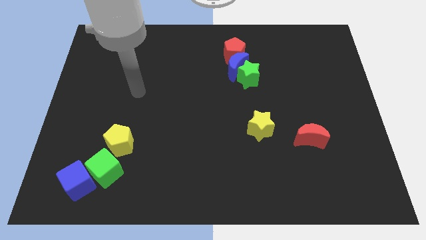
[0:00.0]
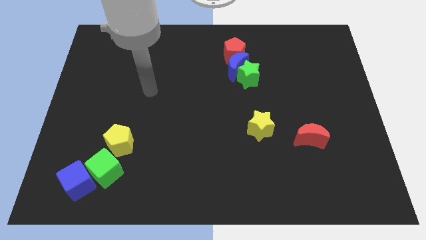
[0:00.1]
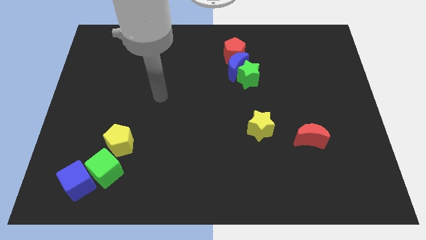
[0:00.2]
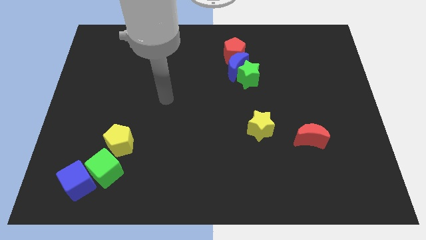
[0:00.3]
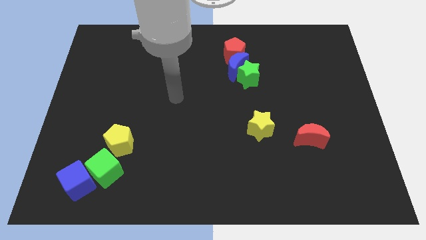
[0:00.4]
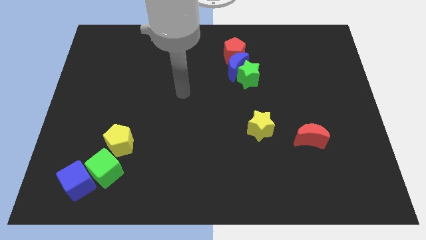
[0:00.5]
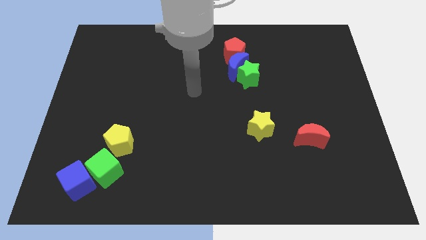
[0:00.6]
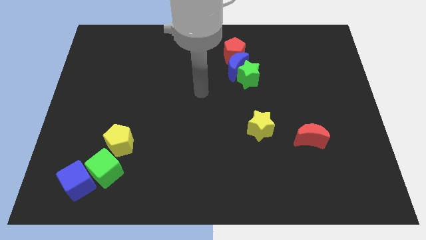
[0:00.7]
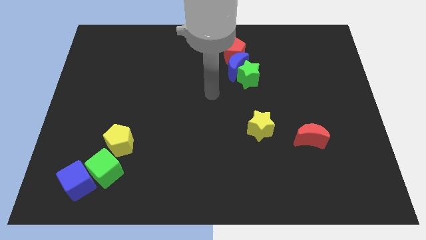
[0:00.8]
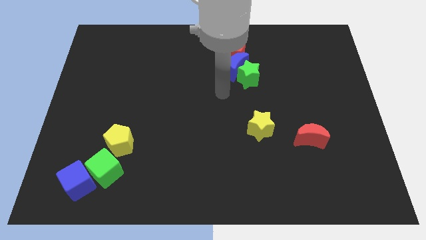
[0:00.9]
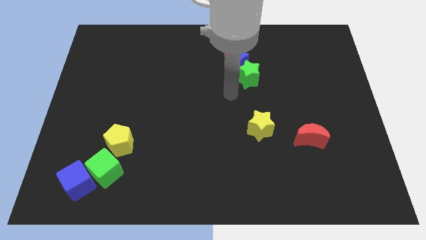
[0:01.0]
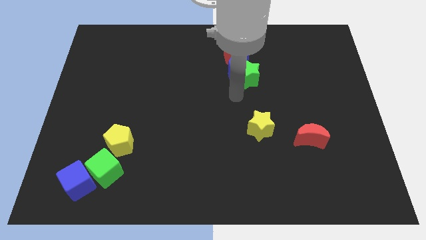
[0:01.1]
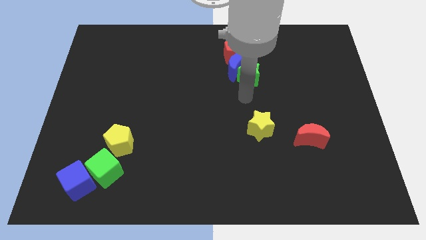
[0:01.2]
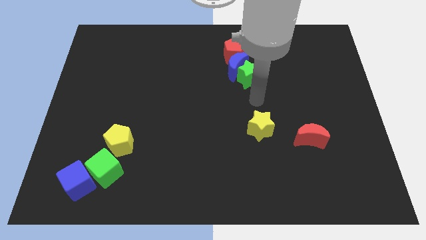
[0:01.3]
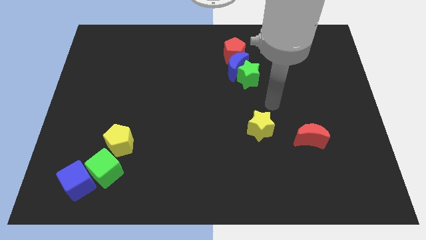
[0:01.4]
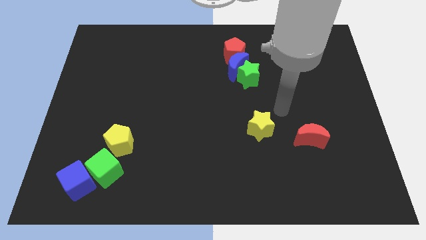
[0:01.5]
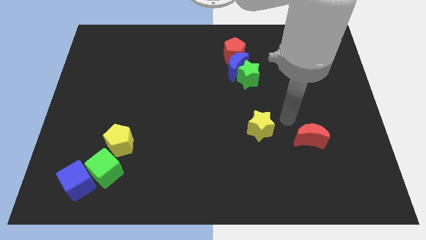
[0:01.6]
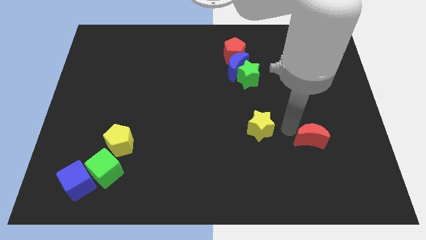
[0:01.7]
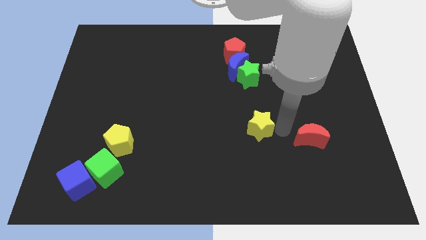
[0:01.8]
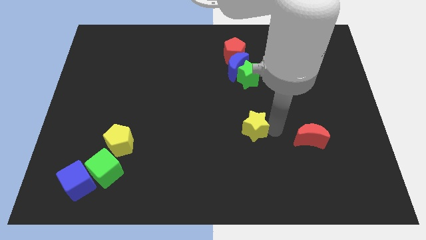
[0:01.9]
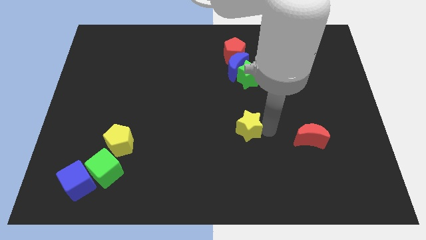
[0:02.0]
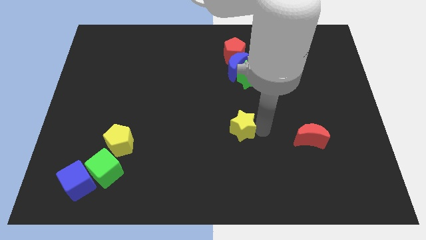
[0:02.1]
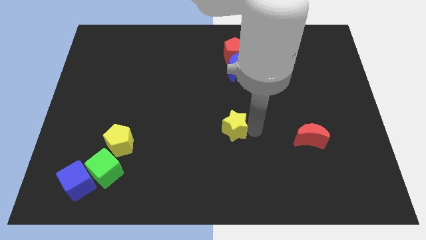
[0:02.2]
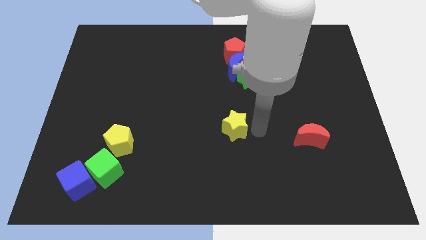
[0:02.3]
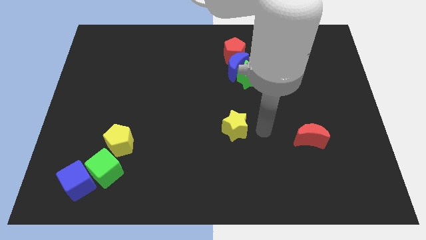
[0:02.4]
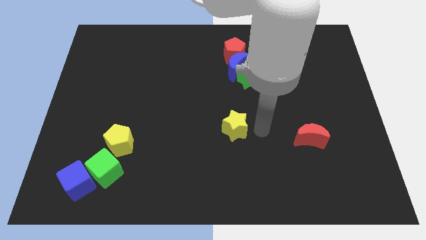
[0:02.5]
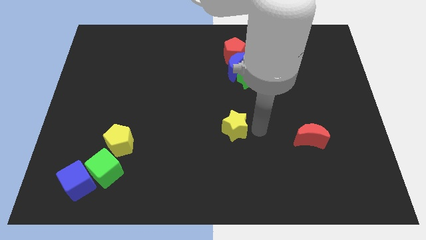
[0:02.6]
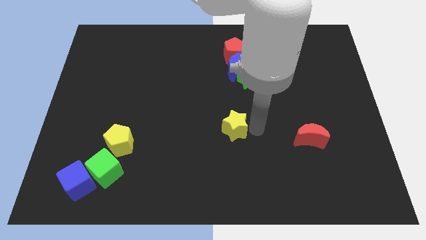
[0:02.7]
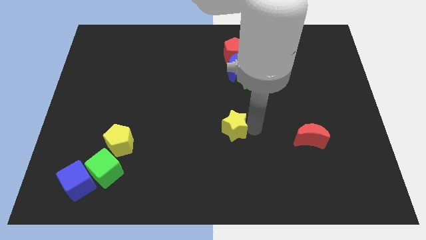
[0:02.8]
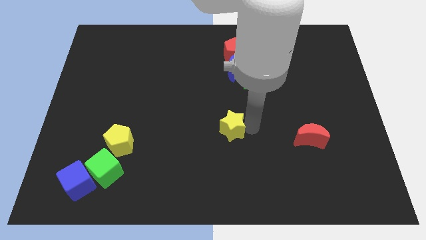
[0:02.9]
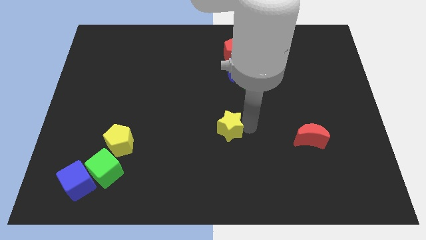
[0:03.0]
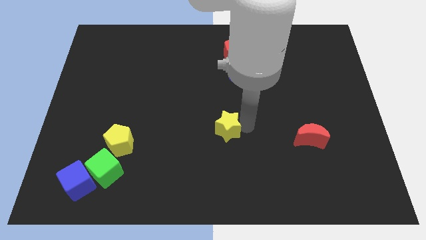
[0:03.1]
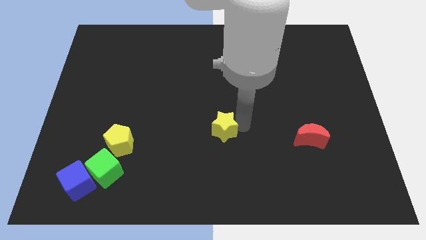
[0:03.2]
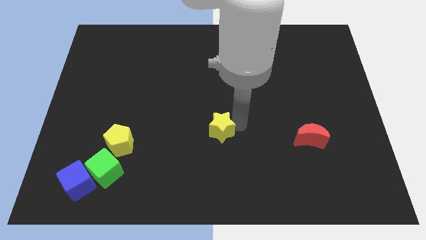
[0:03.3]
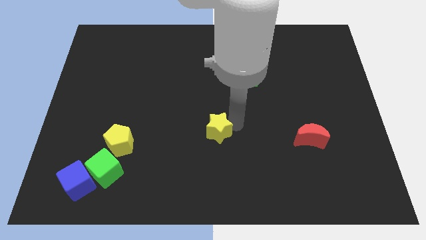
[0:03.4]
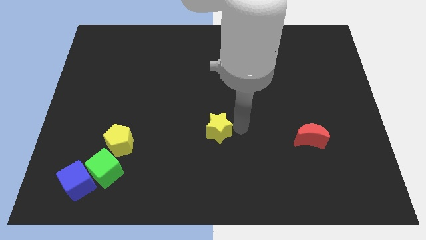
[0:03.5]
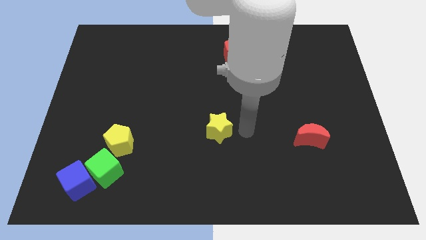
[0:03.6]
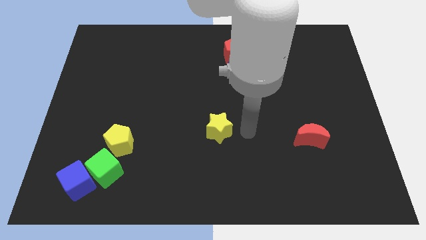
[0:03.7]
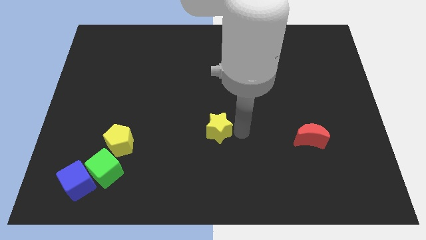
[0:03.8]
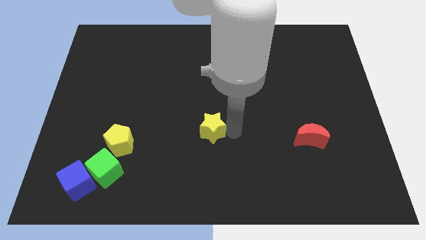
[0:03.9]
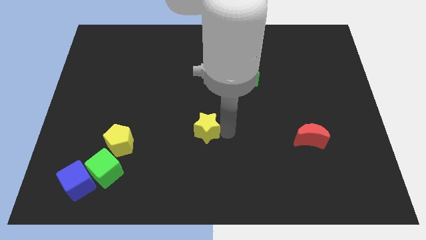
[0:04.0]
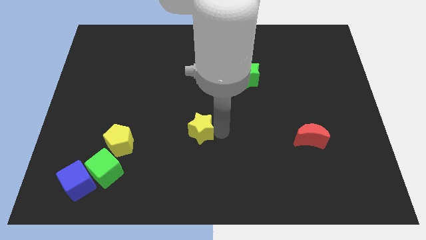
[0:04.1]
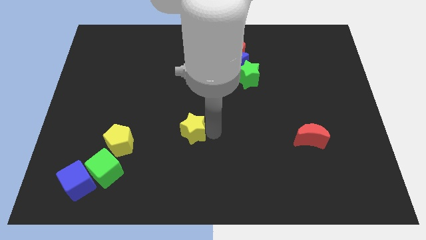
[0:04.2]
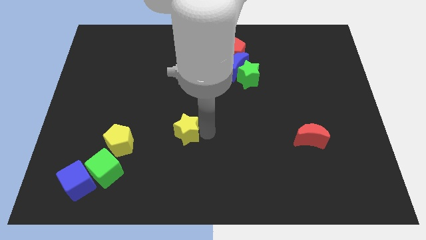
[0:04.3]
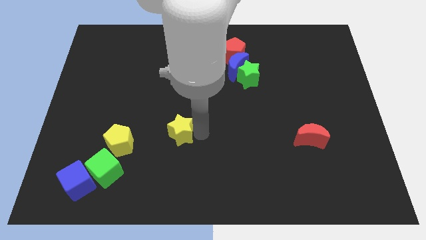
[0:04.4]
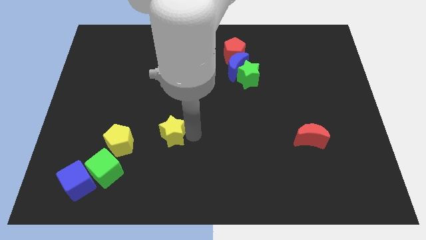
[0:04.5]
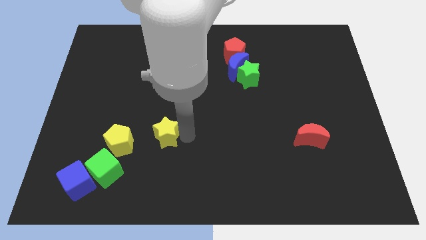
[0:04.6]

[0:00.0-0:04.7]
move the yellow star to the left

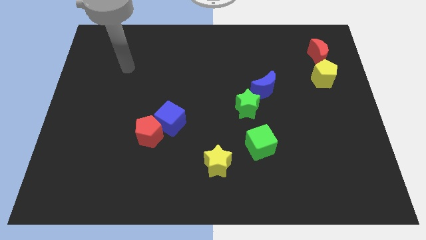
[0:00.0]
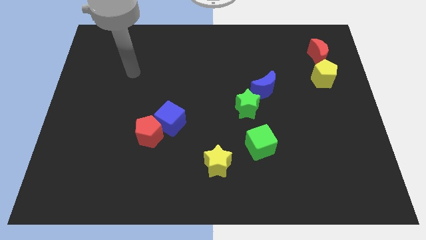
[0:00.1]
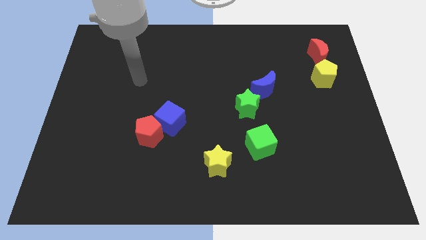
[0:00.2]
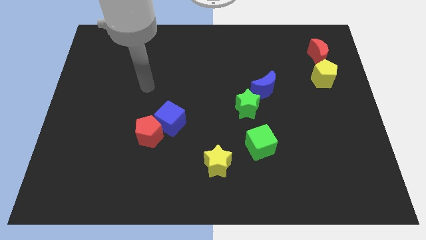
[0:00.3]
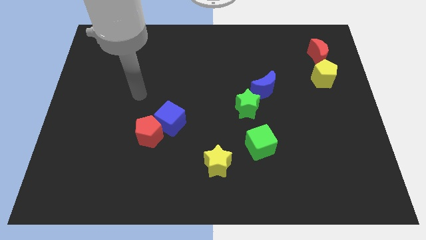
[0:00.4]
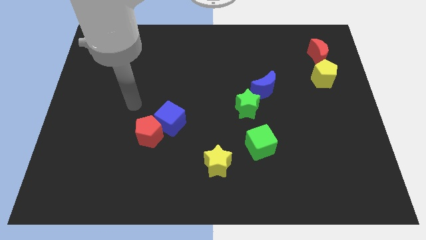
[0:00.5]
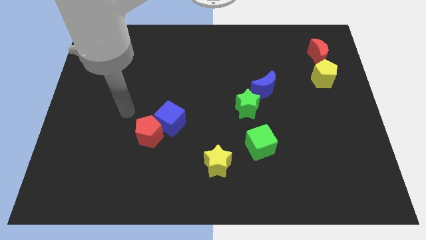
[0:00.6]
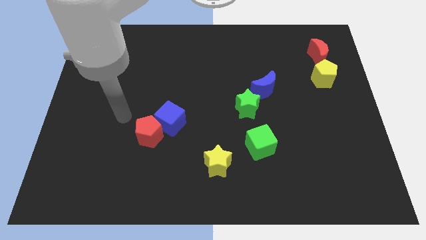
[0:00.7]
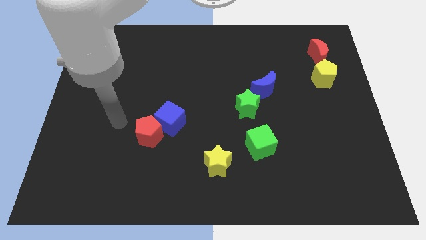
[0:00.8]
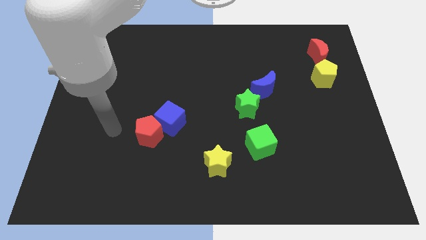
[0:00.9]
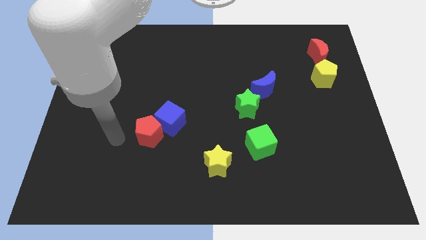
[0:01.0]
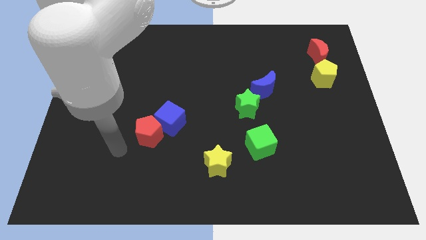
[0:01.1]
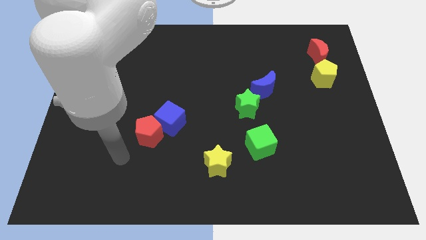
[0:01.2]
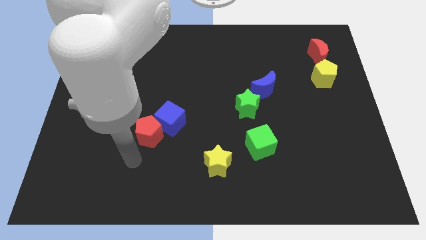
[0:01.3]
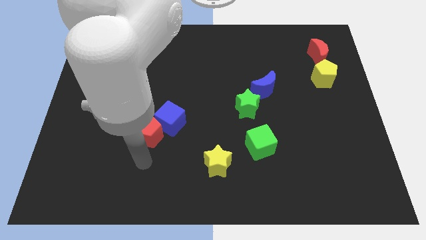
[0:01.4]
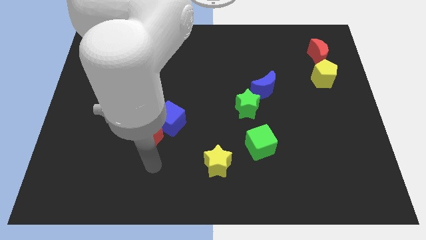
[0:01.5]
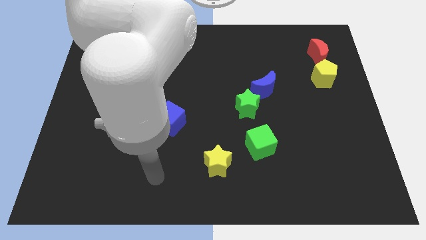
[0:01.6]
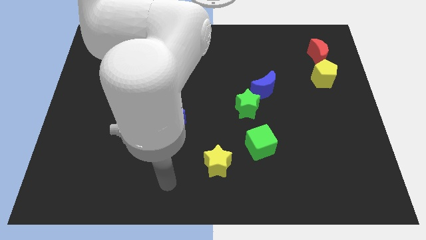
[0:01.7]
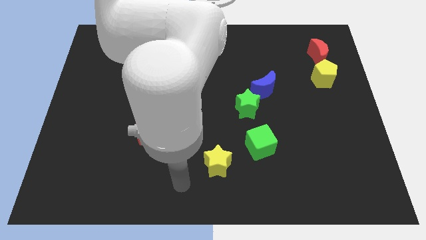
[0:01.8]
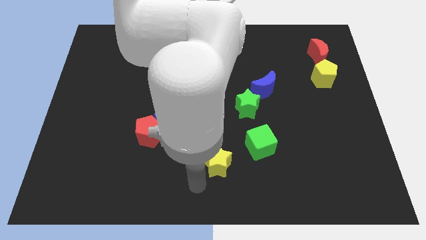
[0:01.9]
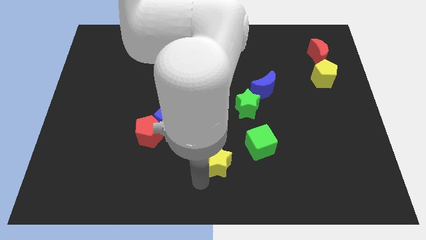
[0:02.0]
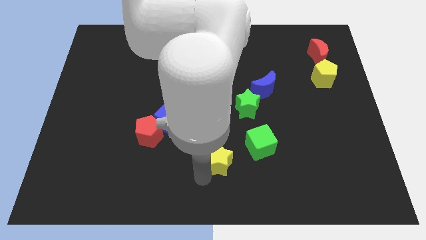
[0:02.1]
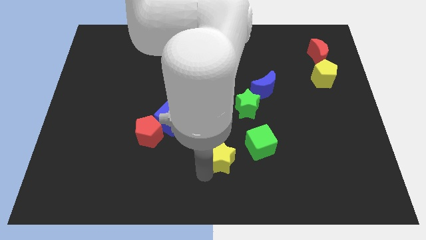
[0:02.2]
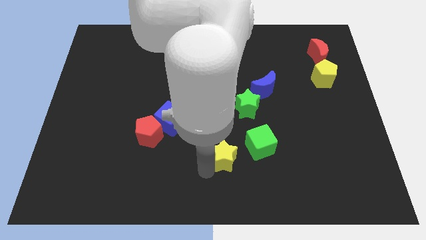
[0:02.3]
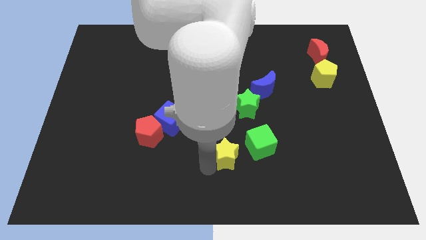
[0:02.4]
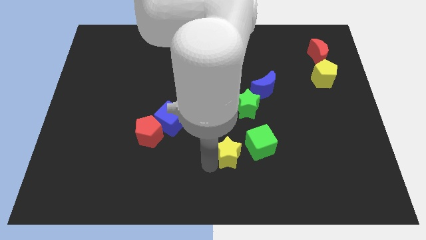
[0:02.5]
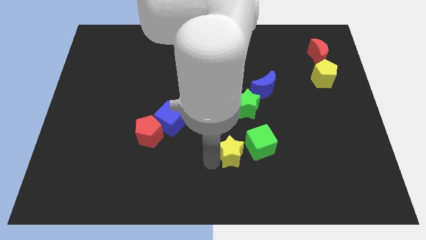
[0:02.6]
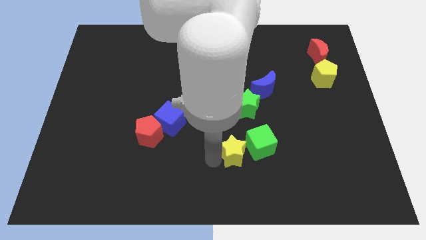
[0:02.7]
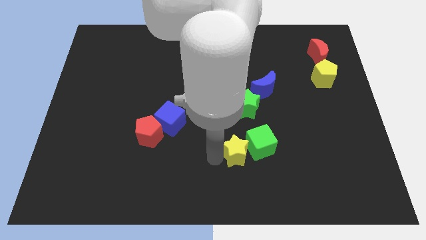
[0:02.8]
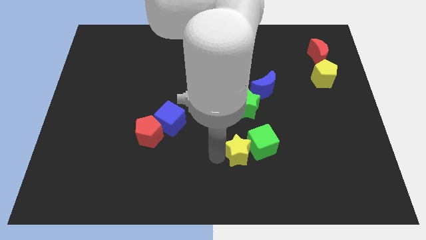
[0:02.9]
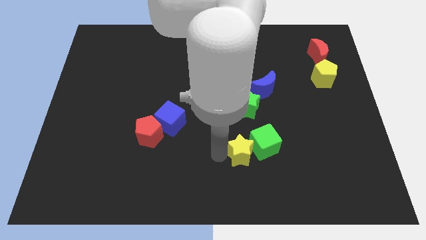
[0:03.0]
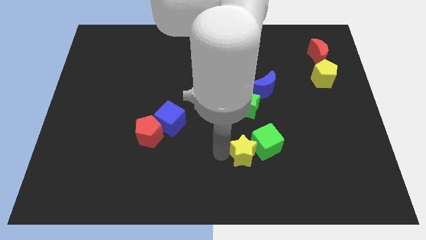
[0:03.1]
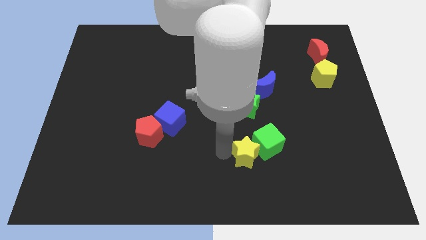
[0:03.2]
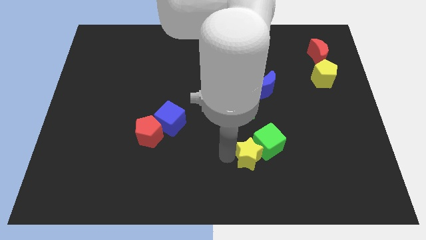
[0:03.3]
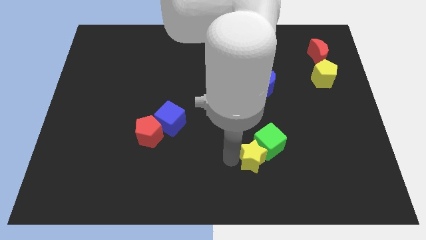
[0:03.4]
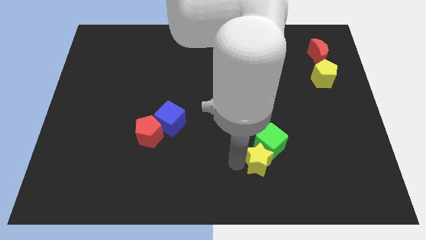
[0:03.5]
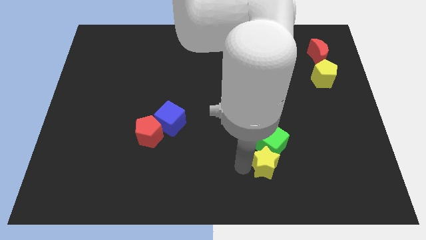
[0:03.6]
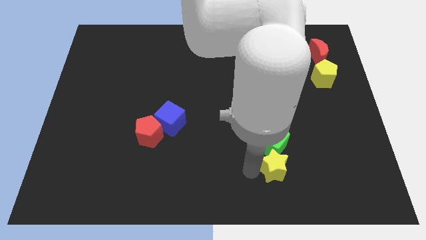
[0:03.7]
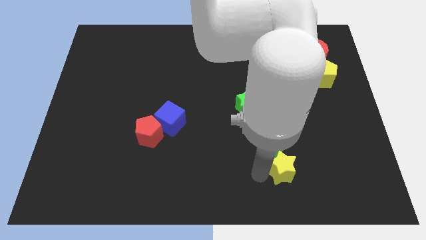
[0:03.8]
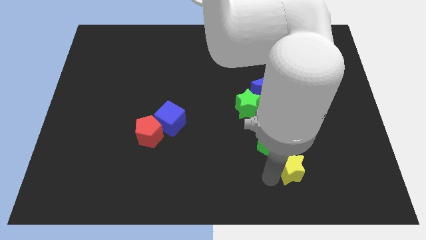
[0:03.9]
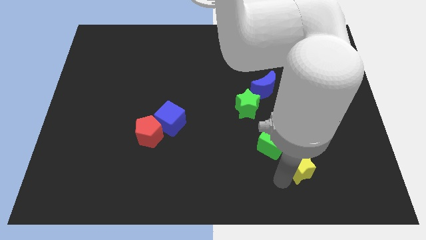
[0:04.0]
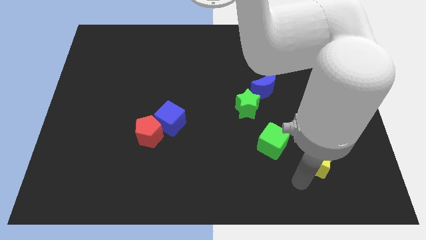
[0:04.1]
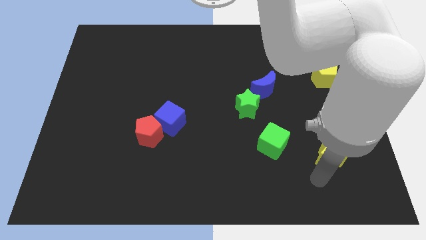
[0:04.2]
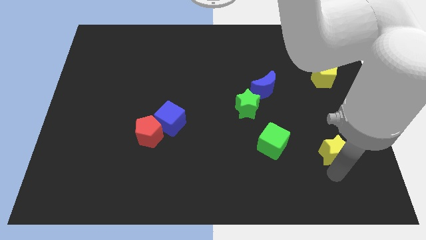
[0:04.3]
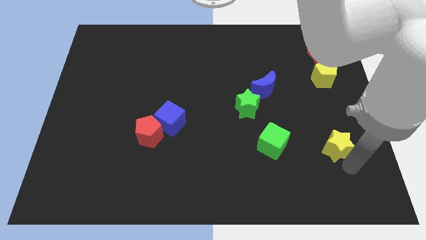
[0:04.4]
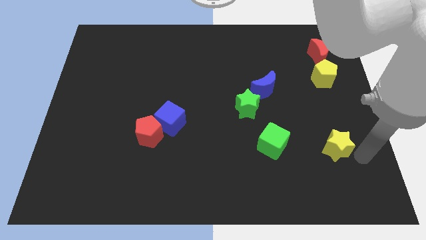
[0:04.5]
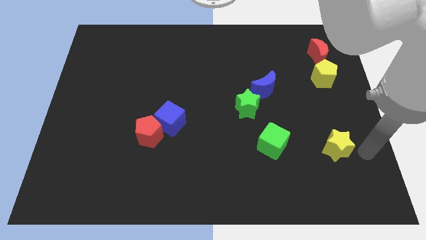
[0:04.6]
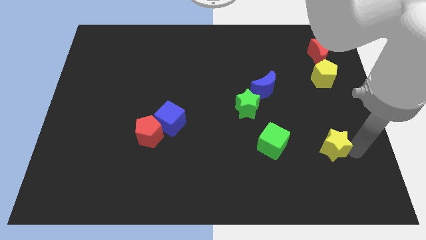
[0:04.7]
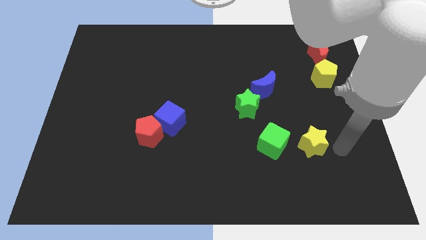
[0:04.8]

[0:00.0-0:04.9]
move the yellow star a little bit upwards and to the right
